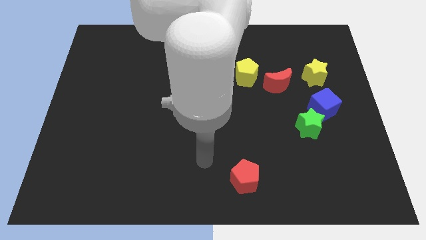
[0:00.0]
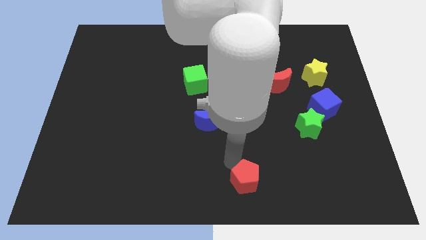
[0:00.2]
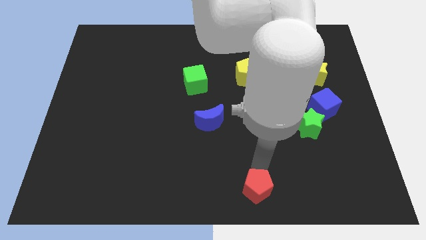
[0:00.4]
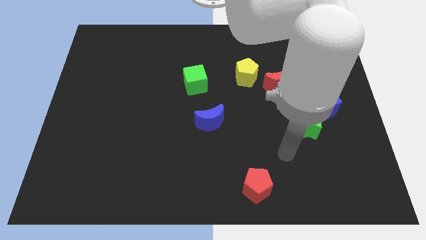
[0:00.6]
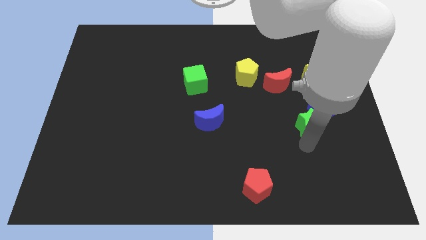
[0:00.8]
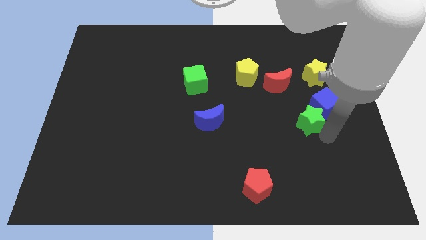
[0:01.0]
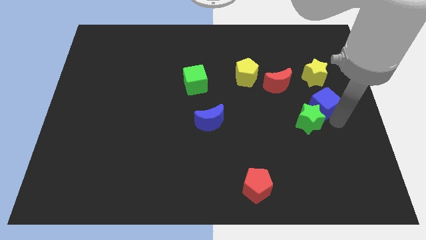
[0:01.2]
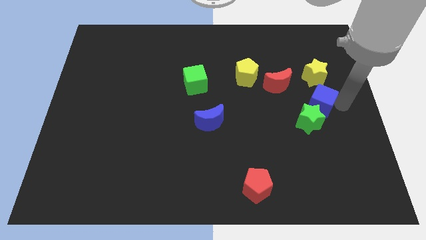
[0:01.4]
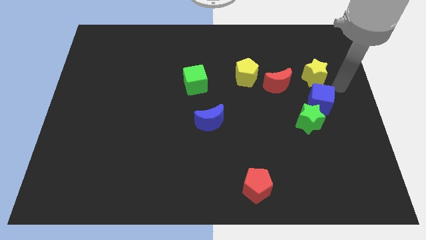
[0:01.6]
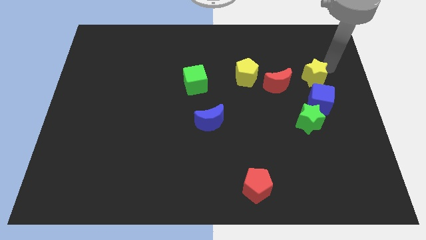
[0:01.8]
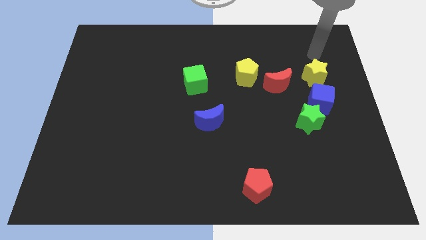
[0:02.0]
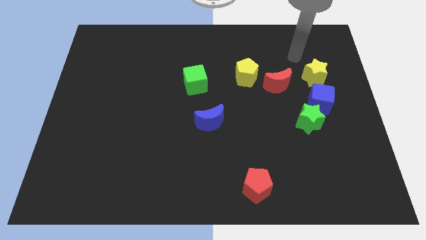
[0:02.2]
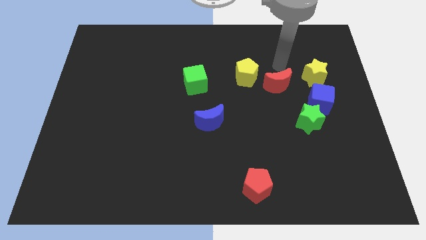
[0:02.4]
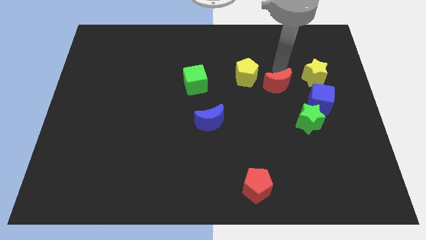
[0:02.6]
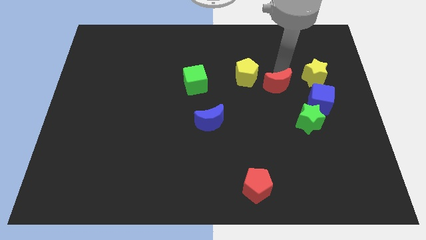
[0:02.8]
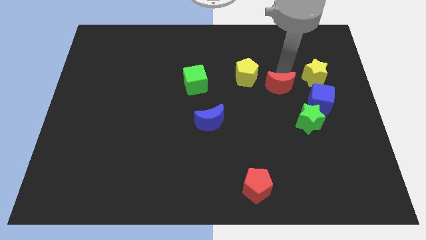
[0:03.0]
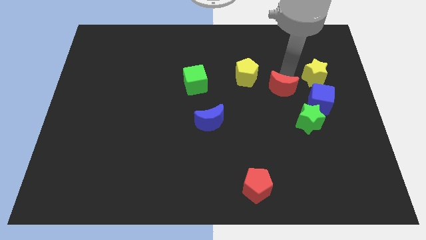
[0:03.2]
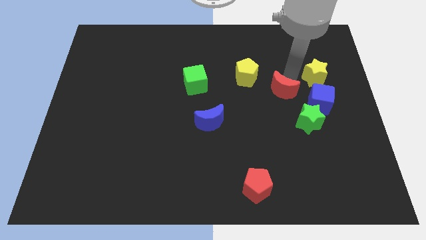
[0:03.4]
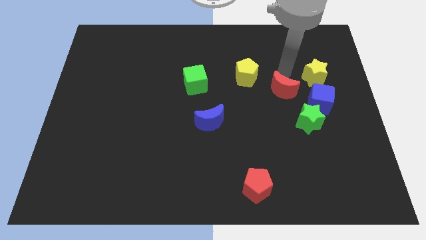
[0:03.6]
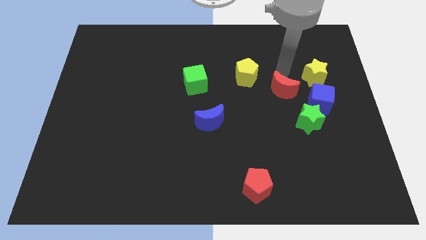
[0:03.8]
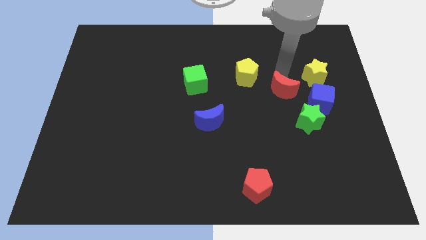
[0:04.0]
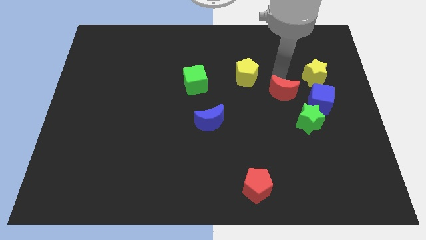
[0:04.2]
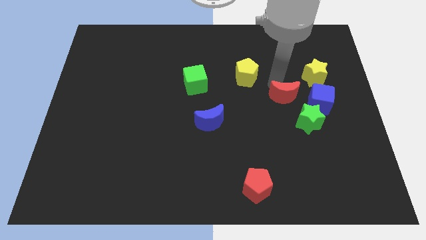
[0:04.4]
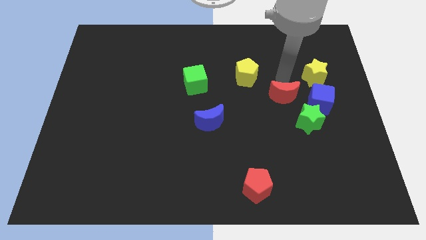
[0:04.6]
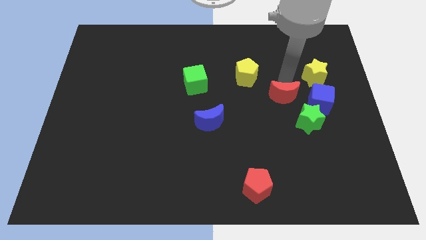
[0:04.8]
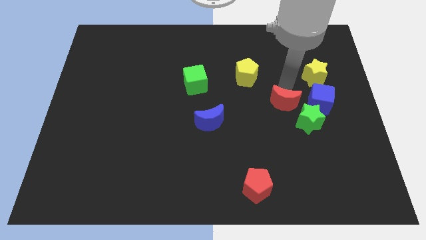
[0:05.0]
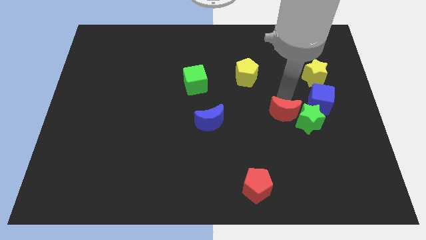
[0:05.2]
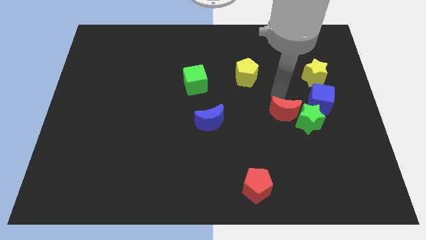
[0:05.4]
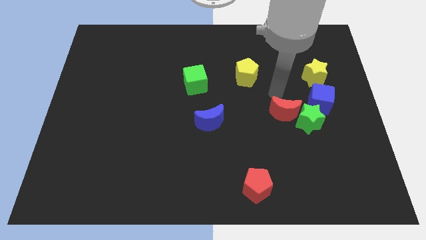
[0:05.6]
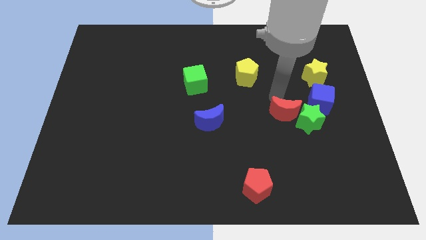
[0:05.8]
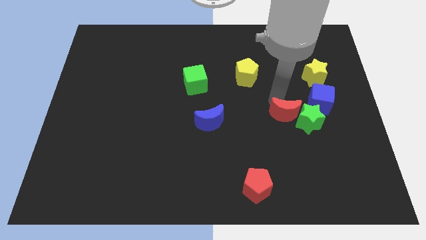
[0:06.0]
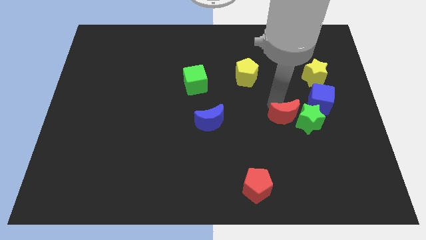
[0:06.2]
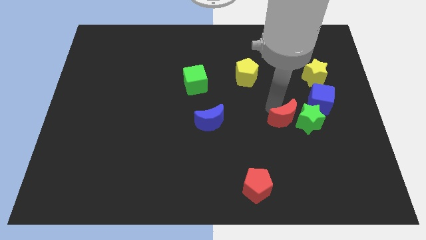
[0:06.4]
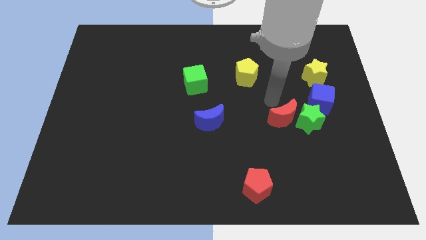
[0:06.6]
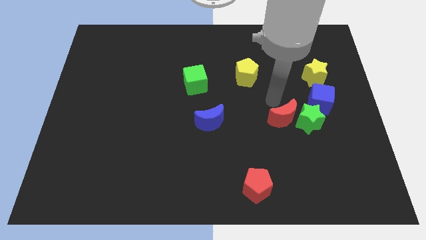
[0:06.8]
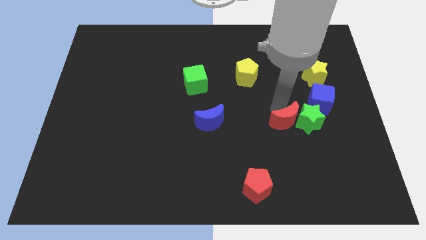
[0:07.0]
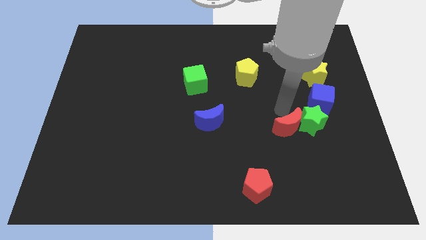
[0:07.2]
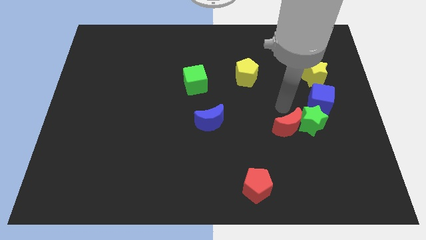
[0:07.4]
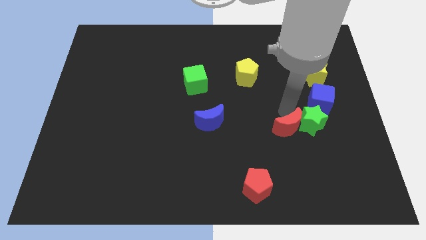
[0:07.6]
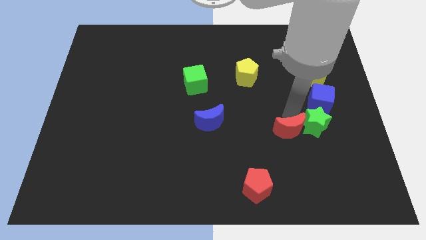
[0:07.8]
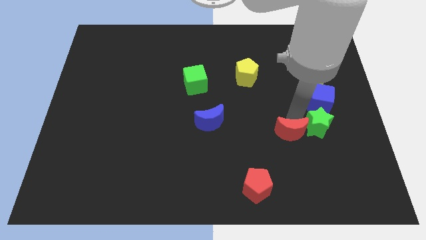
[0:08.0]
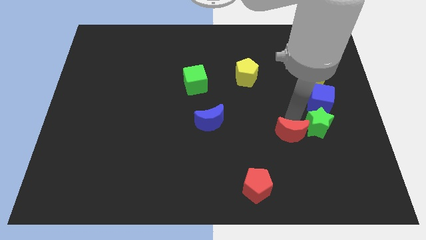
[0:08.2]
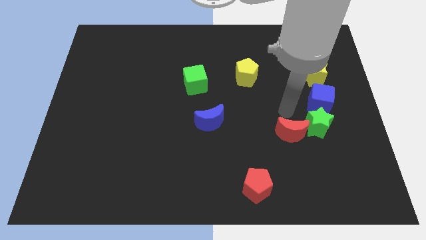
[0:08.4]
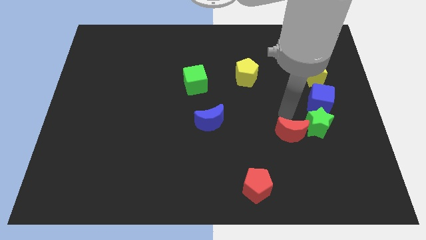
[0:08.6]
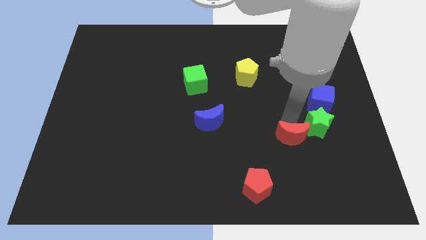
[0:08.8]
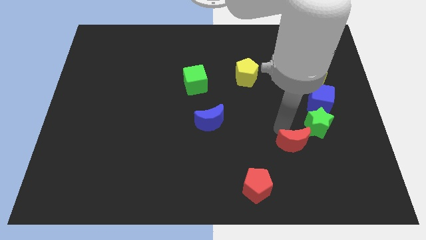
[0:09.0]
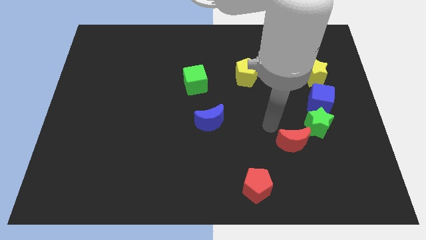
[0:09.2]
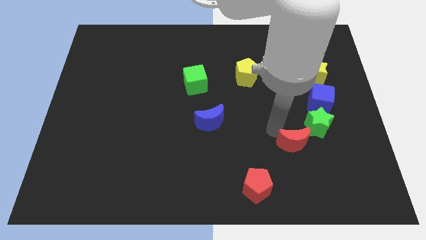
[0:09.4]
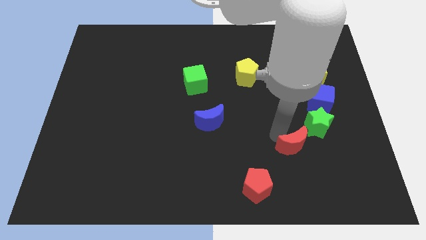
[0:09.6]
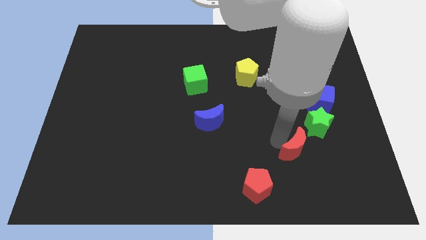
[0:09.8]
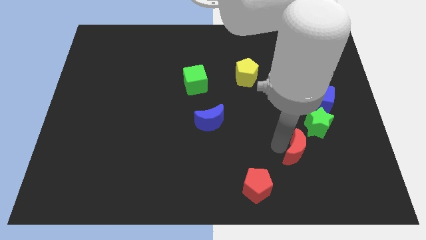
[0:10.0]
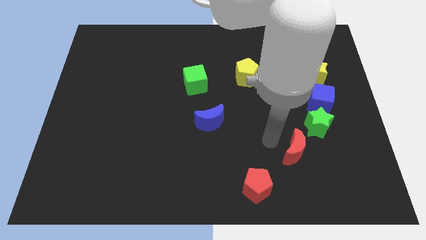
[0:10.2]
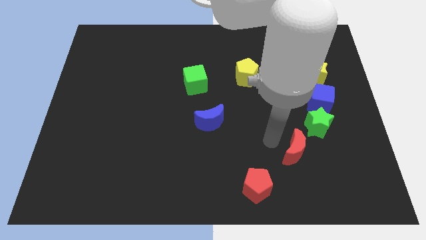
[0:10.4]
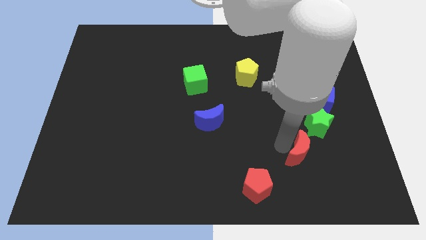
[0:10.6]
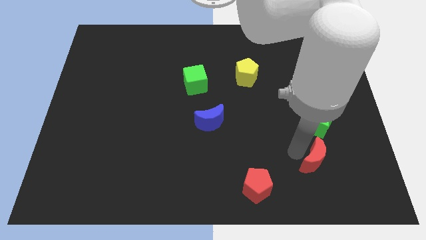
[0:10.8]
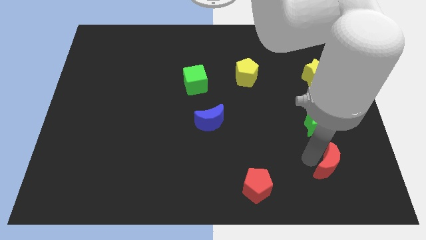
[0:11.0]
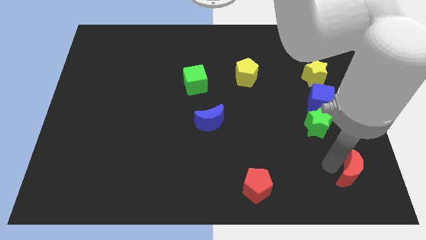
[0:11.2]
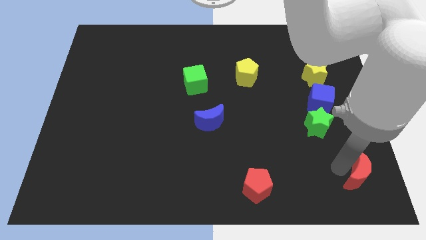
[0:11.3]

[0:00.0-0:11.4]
put the red moon to the lower right corner
